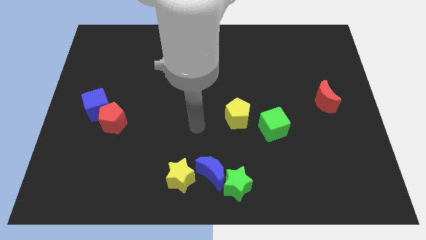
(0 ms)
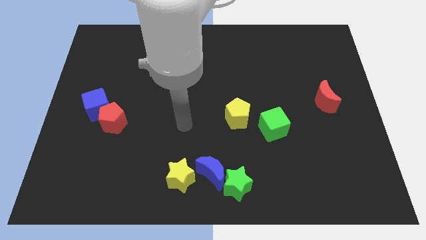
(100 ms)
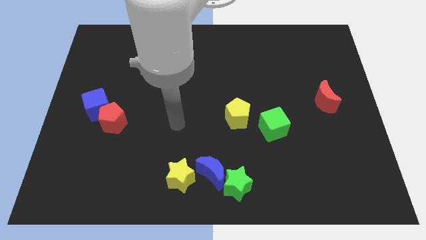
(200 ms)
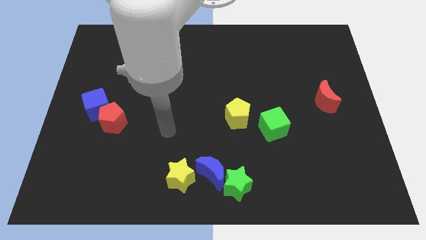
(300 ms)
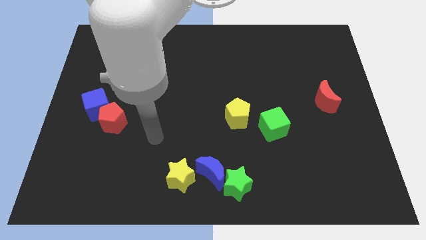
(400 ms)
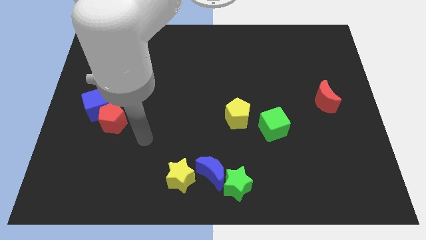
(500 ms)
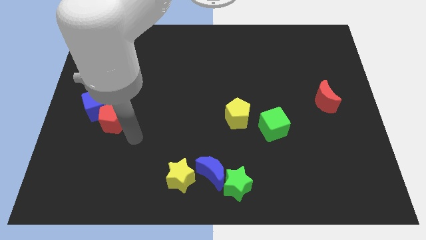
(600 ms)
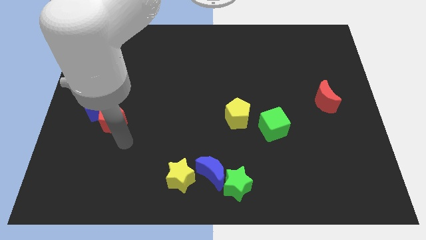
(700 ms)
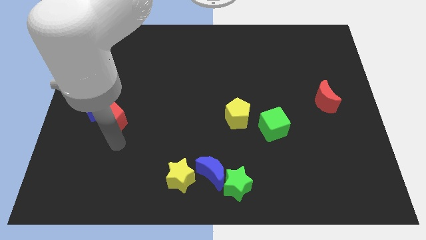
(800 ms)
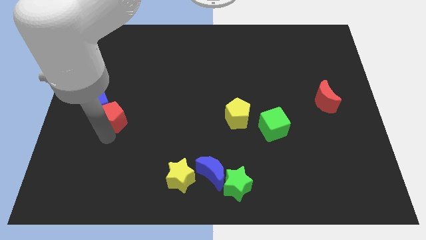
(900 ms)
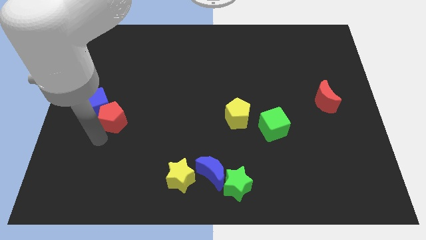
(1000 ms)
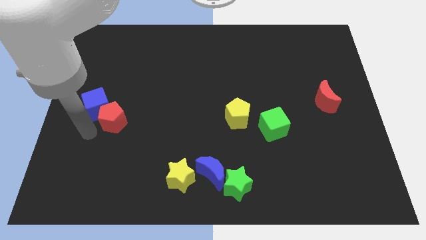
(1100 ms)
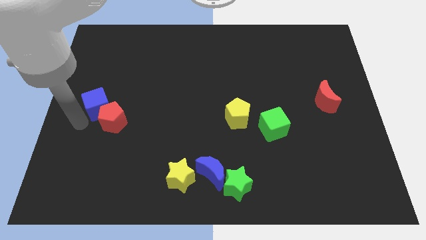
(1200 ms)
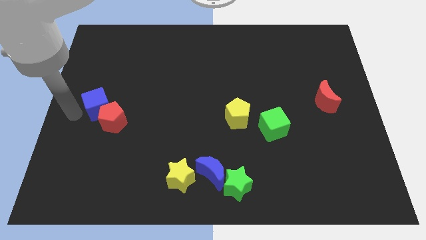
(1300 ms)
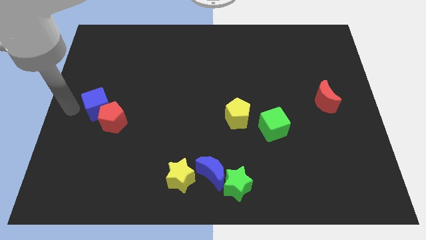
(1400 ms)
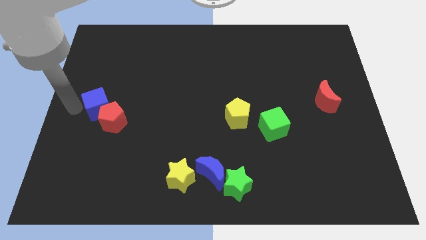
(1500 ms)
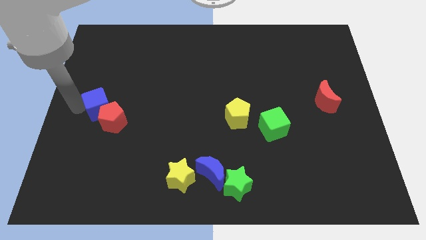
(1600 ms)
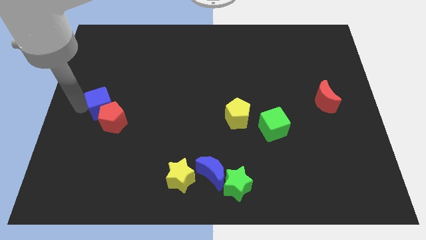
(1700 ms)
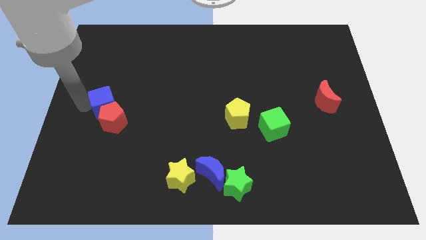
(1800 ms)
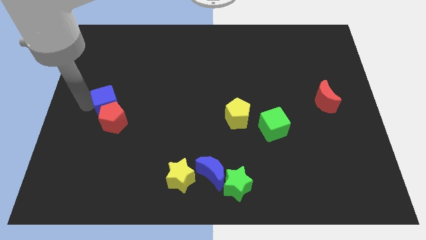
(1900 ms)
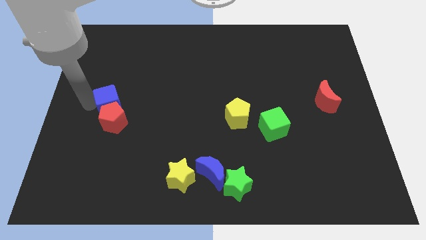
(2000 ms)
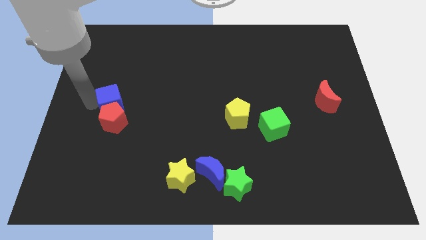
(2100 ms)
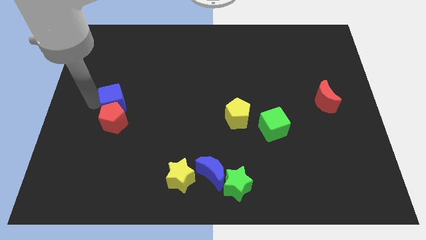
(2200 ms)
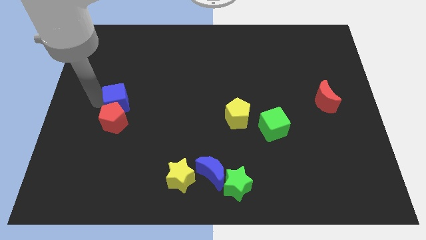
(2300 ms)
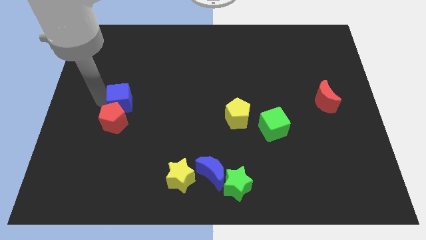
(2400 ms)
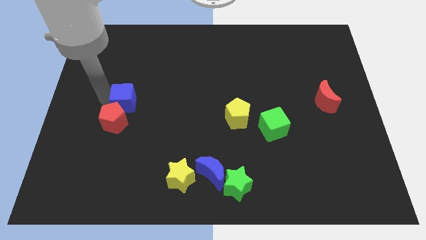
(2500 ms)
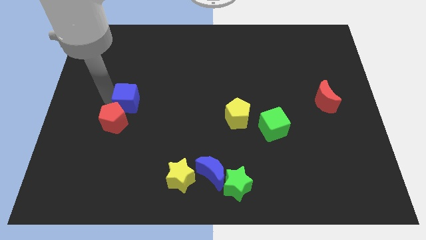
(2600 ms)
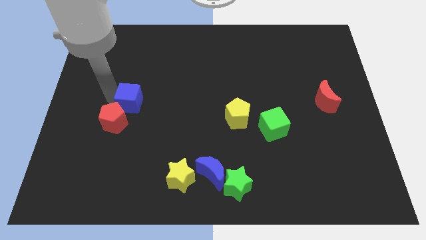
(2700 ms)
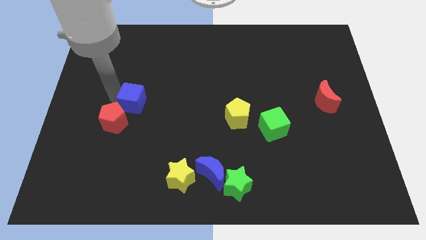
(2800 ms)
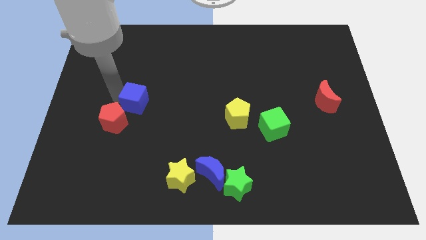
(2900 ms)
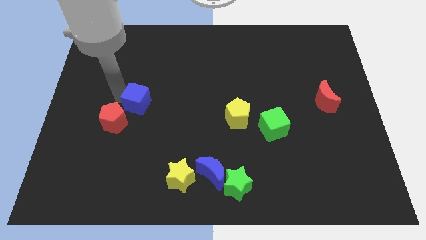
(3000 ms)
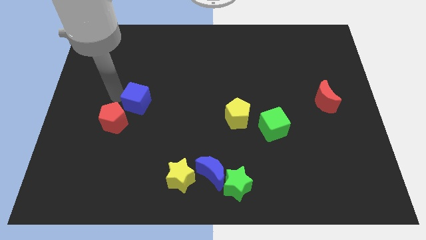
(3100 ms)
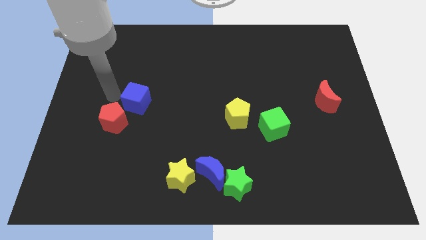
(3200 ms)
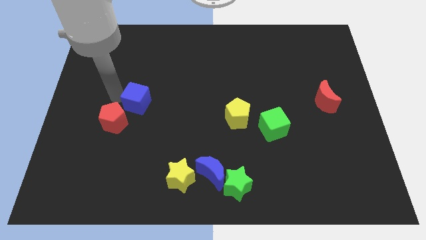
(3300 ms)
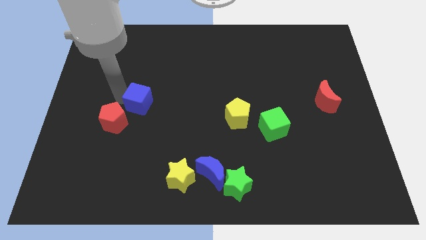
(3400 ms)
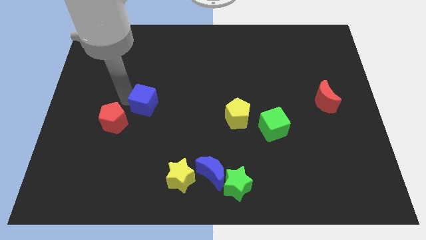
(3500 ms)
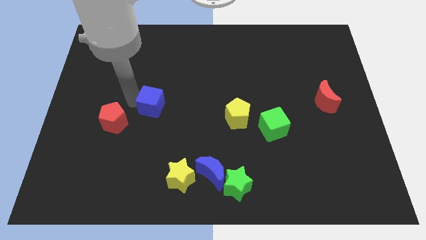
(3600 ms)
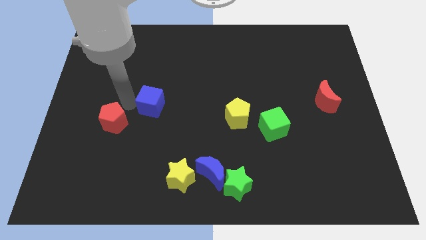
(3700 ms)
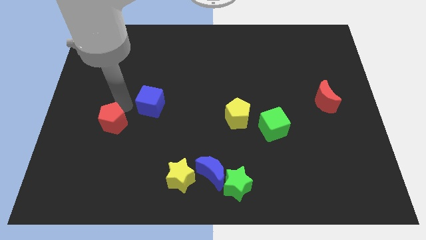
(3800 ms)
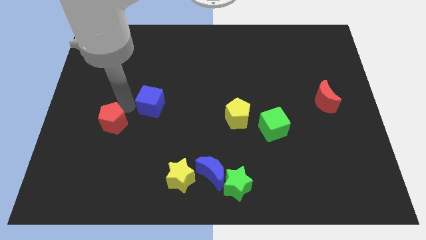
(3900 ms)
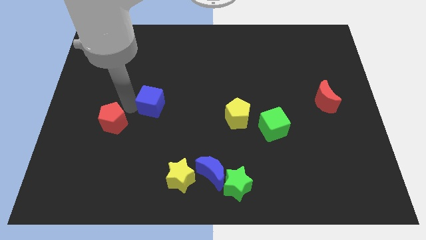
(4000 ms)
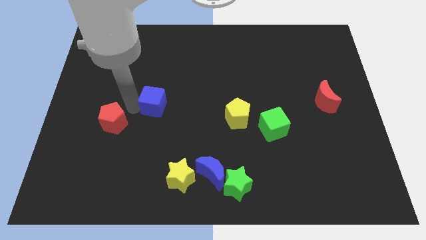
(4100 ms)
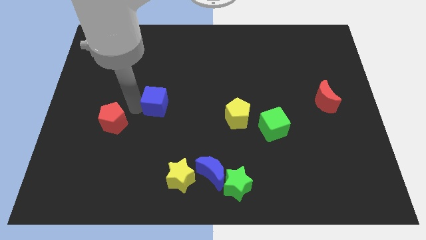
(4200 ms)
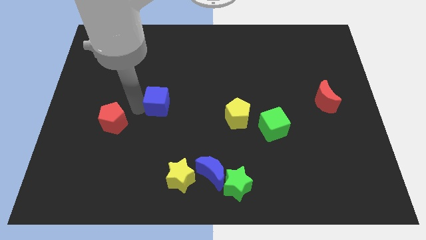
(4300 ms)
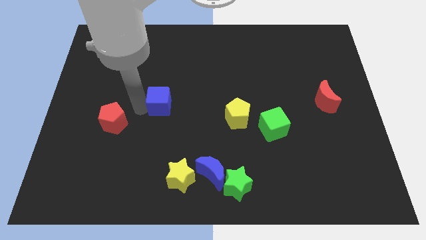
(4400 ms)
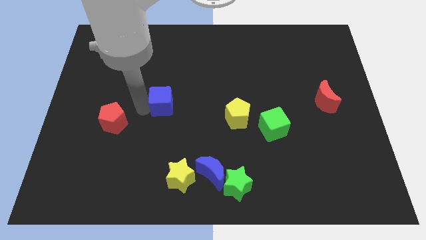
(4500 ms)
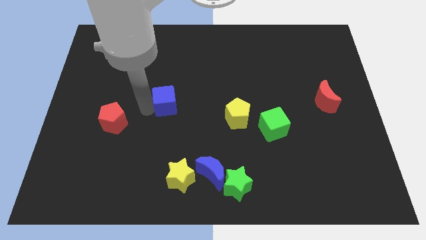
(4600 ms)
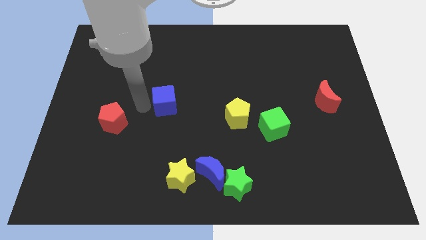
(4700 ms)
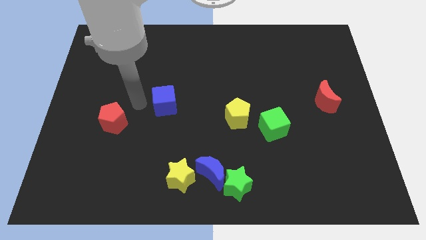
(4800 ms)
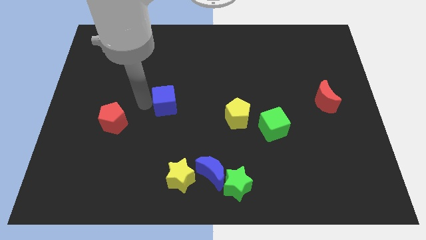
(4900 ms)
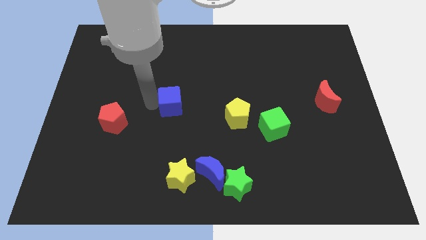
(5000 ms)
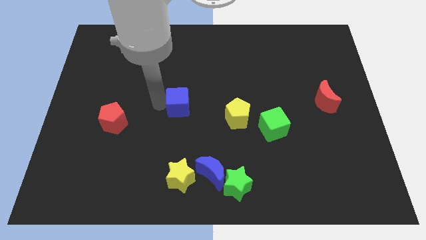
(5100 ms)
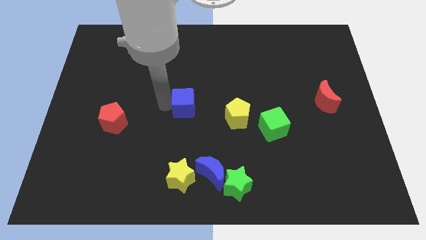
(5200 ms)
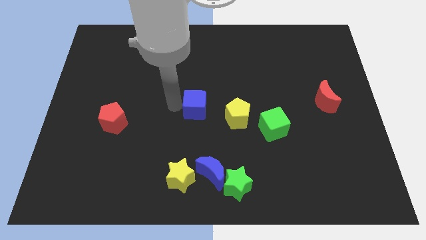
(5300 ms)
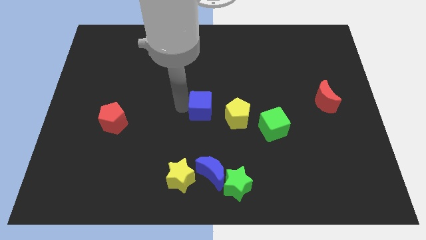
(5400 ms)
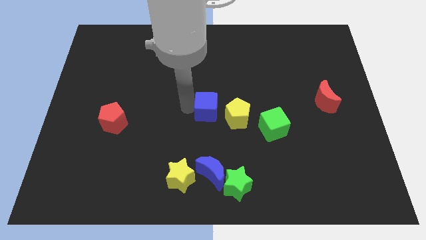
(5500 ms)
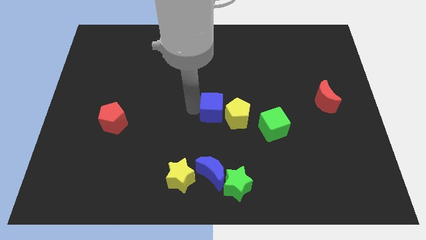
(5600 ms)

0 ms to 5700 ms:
push the blue cube to the yellow pentagon

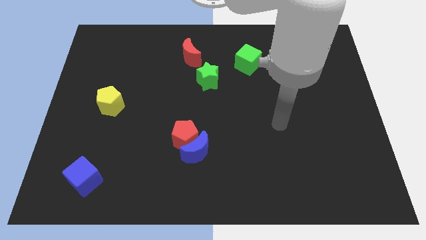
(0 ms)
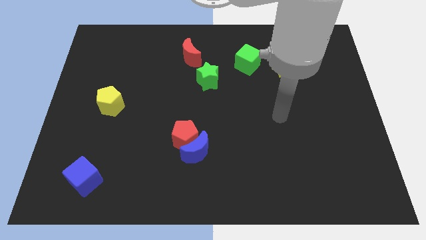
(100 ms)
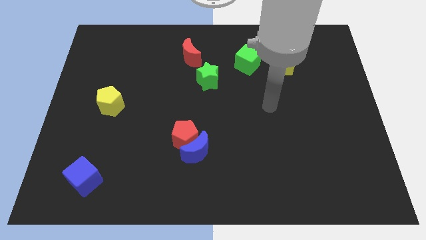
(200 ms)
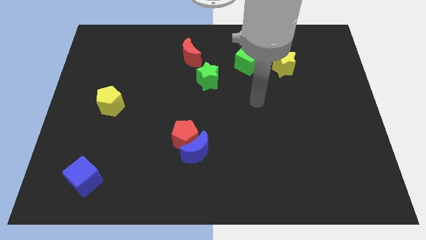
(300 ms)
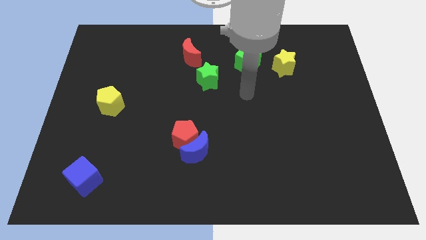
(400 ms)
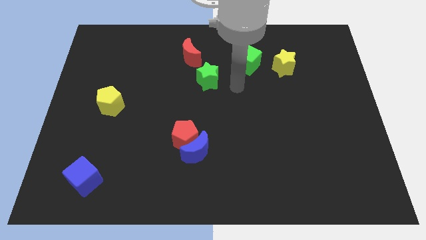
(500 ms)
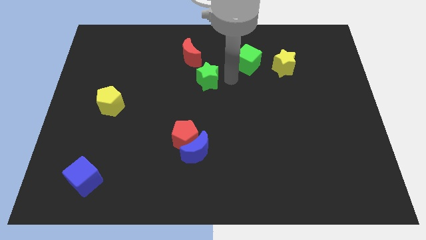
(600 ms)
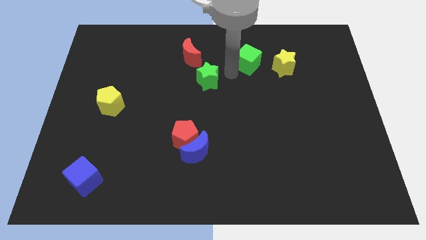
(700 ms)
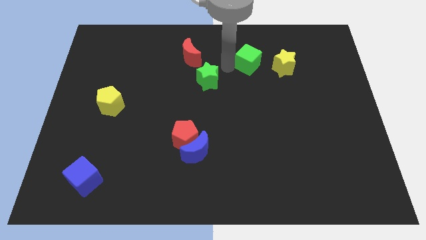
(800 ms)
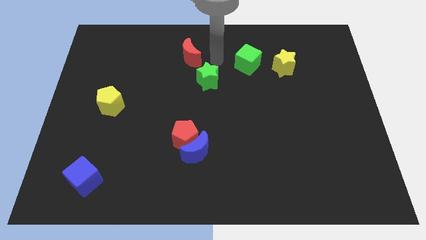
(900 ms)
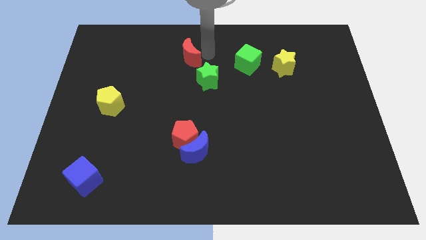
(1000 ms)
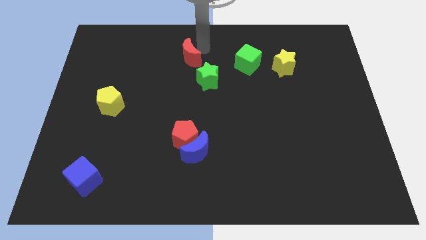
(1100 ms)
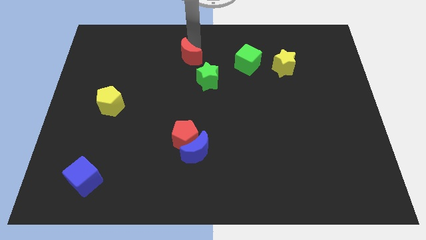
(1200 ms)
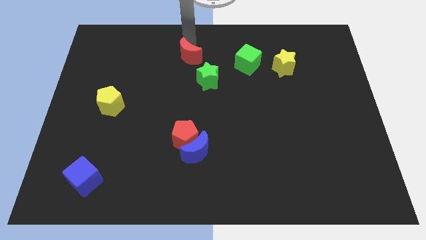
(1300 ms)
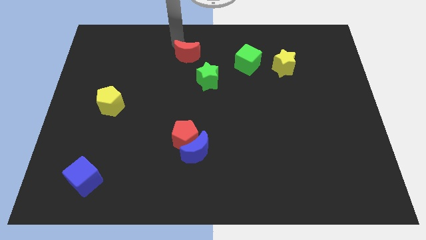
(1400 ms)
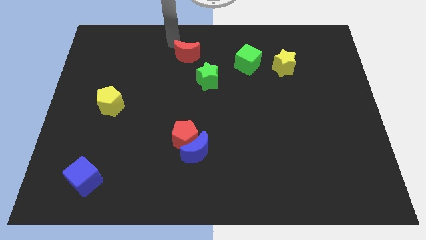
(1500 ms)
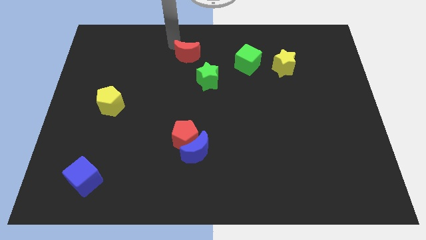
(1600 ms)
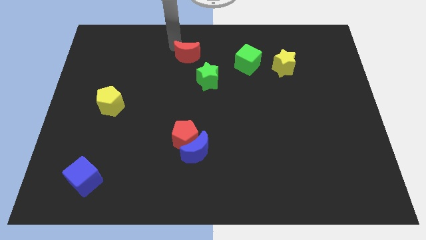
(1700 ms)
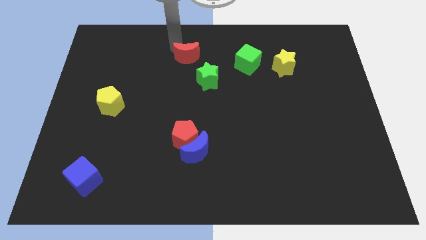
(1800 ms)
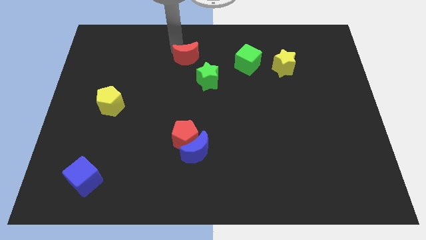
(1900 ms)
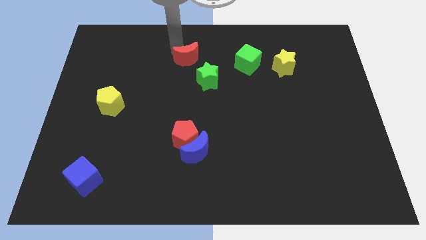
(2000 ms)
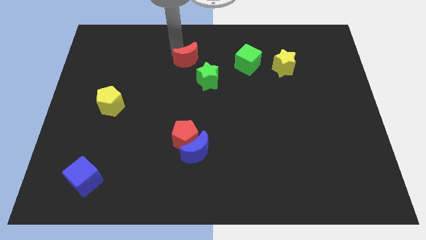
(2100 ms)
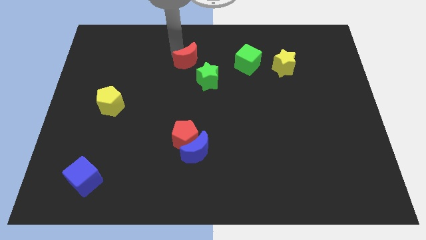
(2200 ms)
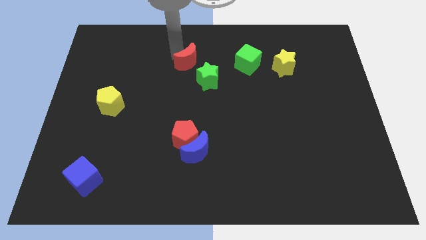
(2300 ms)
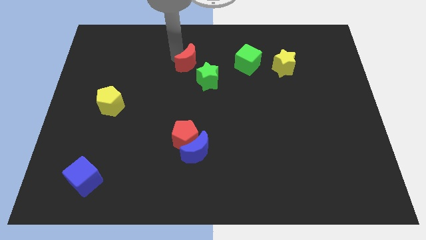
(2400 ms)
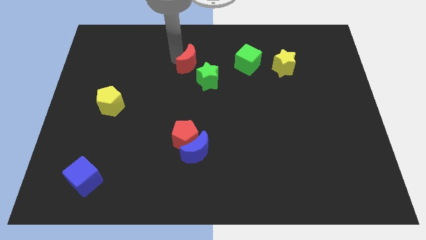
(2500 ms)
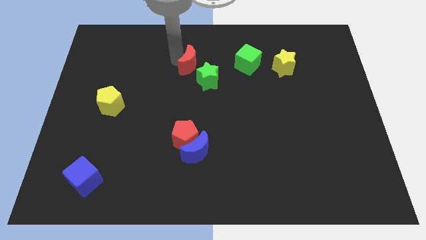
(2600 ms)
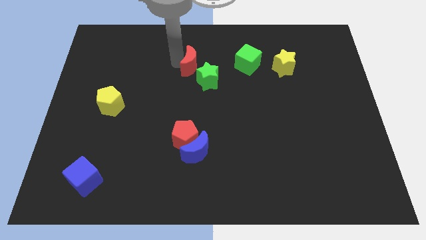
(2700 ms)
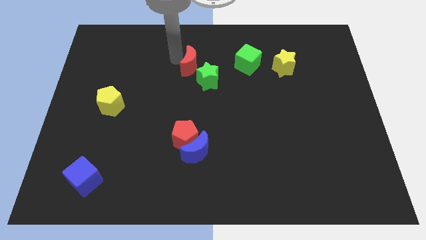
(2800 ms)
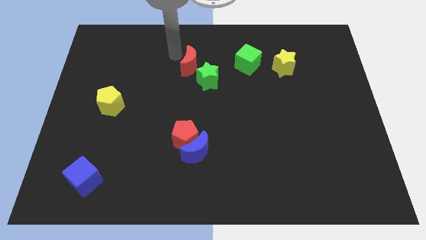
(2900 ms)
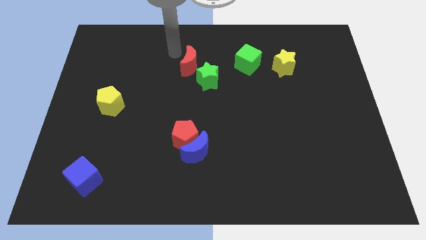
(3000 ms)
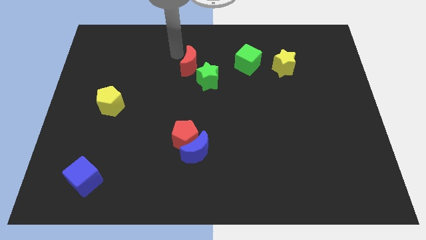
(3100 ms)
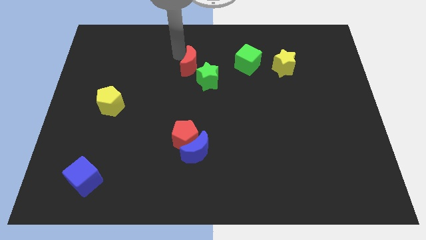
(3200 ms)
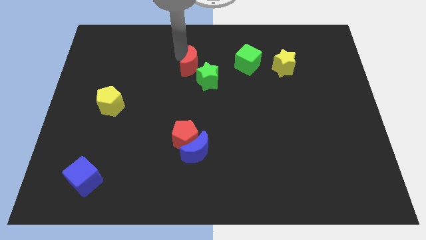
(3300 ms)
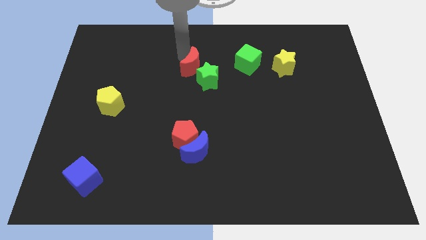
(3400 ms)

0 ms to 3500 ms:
move the red moon to the green star
